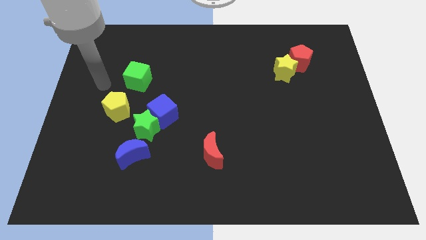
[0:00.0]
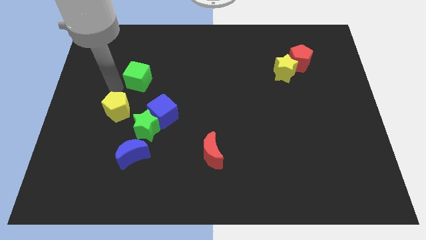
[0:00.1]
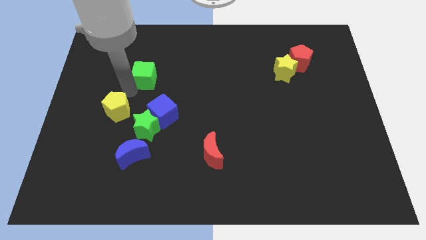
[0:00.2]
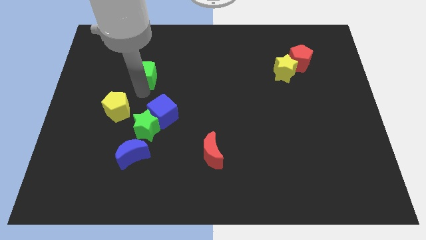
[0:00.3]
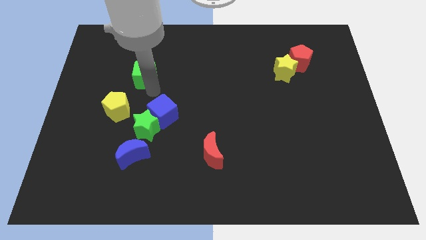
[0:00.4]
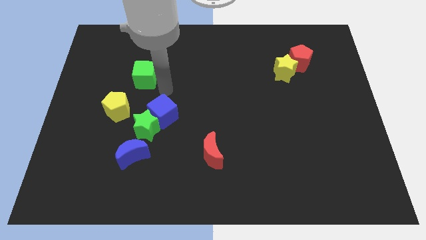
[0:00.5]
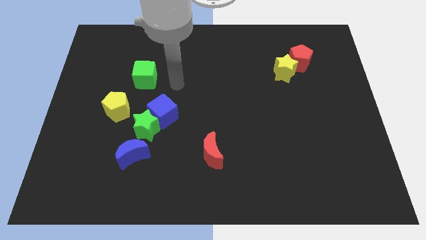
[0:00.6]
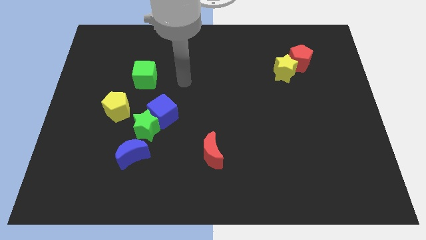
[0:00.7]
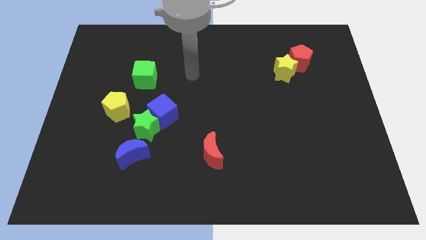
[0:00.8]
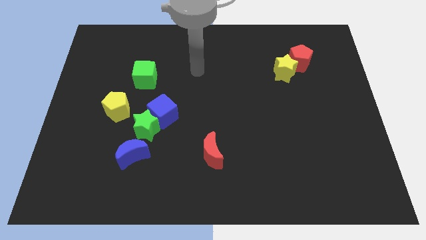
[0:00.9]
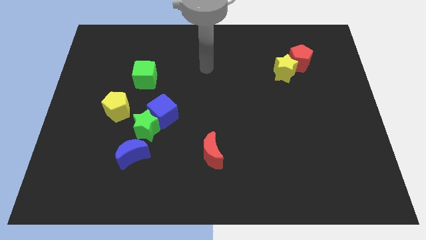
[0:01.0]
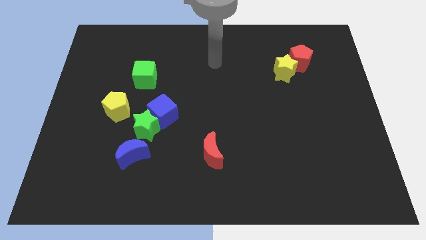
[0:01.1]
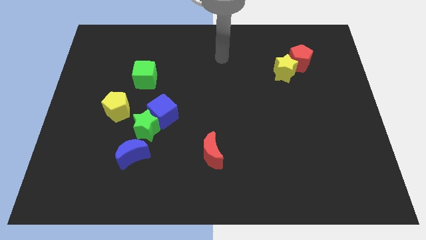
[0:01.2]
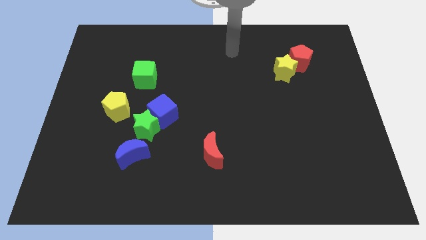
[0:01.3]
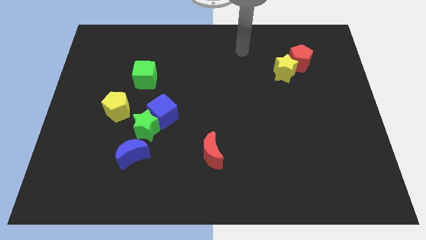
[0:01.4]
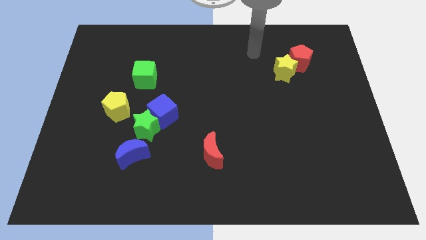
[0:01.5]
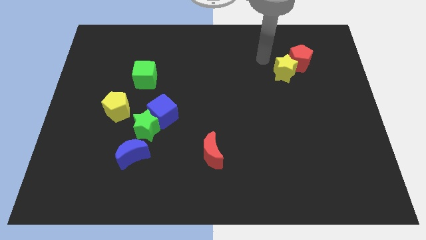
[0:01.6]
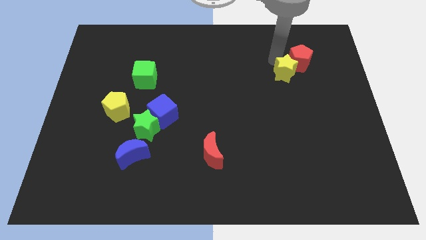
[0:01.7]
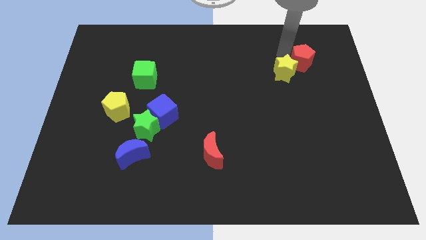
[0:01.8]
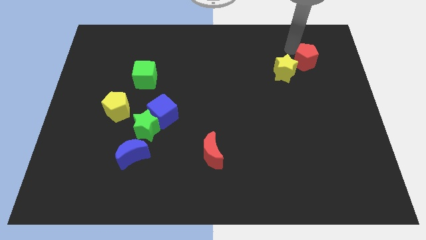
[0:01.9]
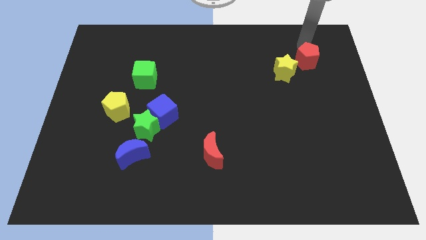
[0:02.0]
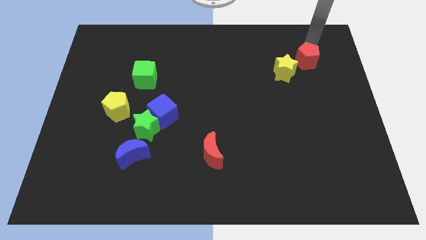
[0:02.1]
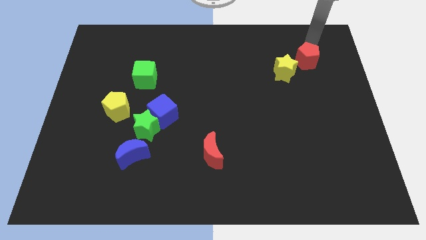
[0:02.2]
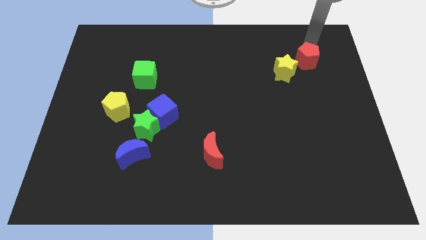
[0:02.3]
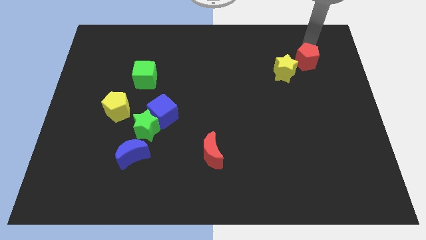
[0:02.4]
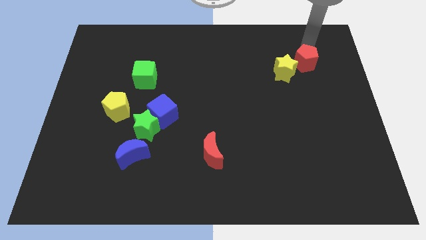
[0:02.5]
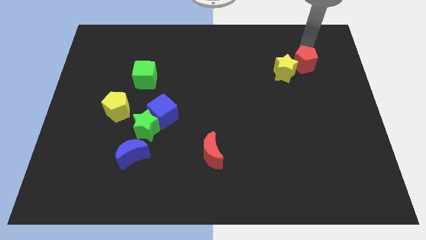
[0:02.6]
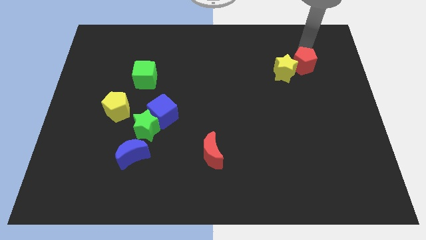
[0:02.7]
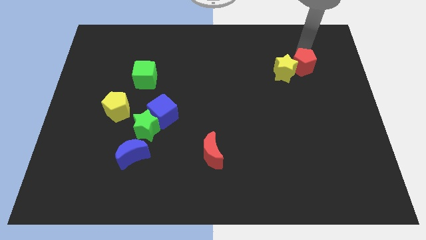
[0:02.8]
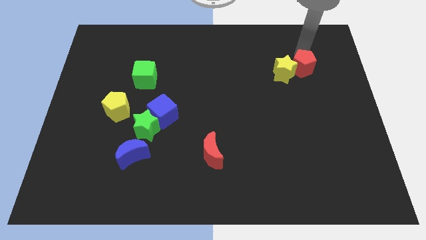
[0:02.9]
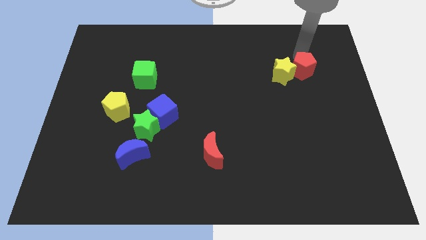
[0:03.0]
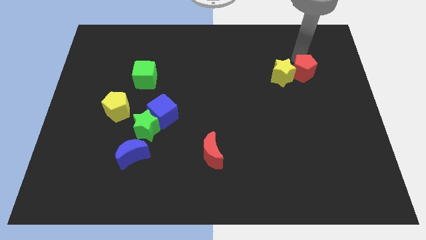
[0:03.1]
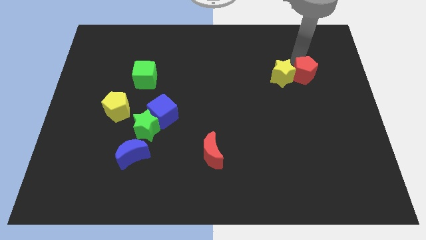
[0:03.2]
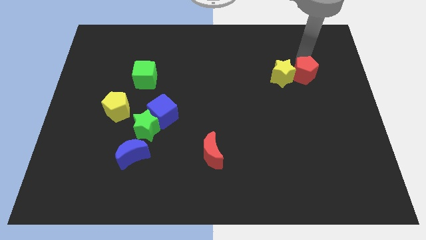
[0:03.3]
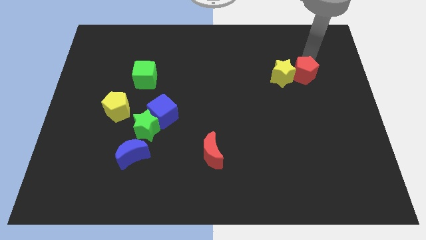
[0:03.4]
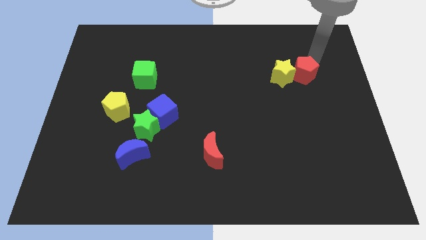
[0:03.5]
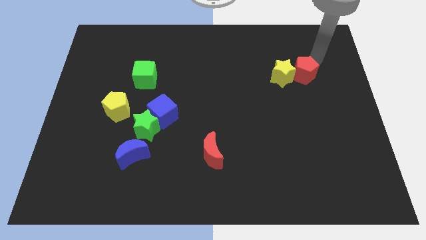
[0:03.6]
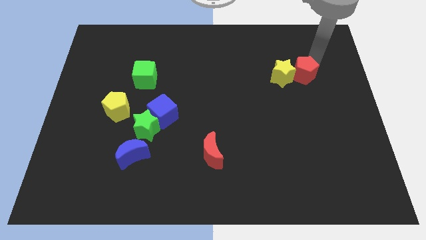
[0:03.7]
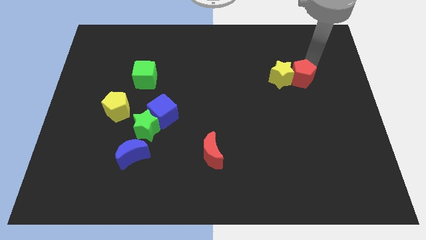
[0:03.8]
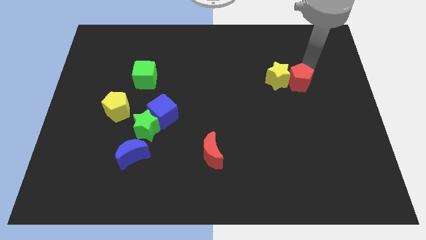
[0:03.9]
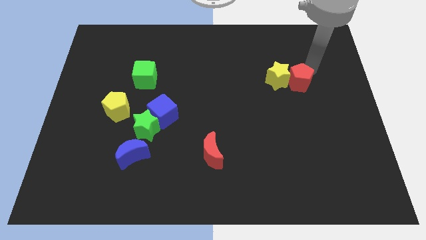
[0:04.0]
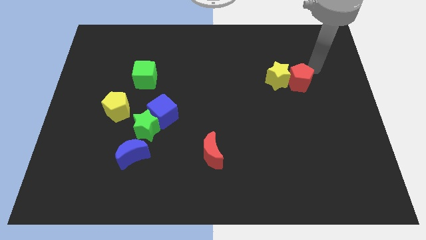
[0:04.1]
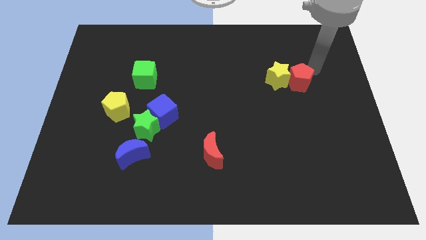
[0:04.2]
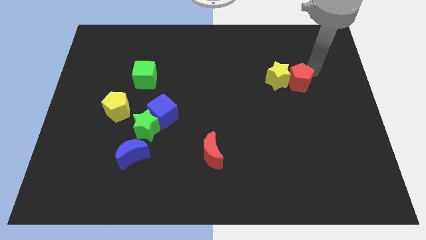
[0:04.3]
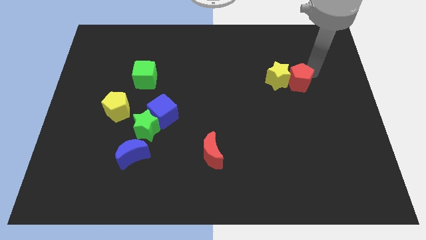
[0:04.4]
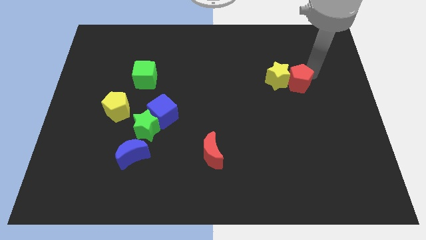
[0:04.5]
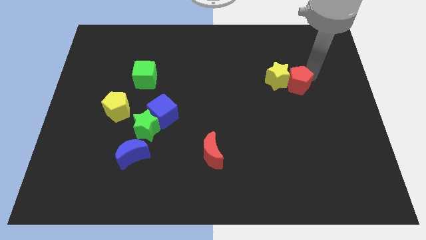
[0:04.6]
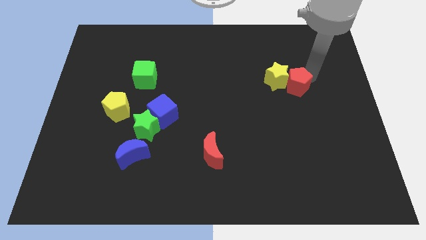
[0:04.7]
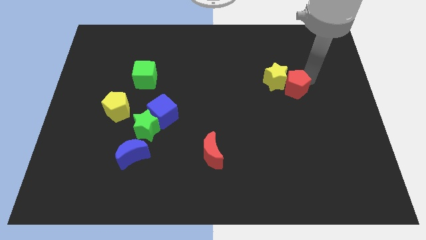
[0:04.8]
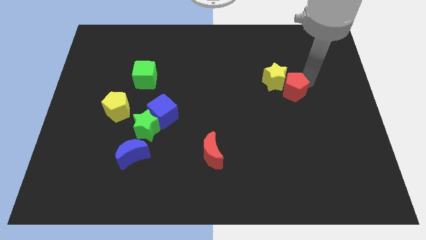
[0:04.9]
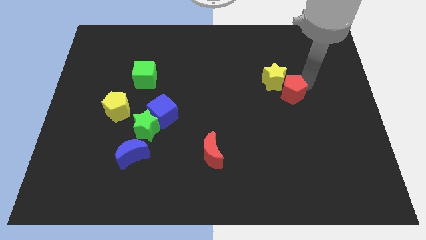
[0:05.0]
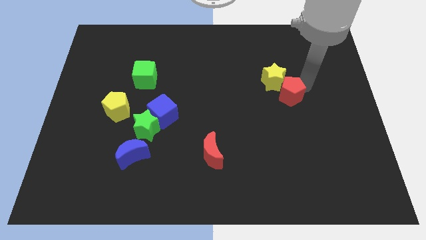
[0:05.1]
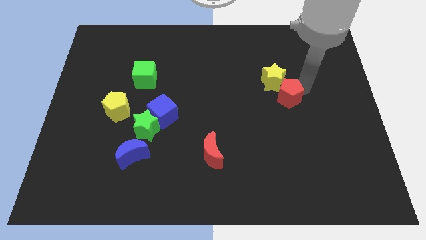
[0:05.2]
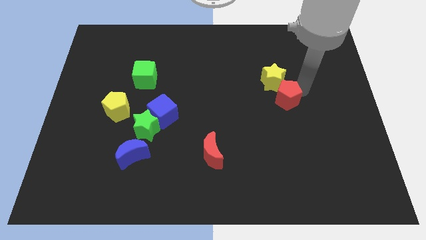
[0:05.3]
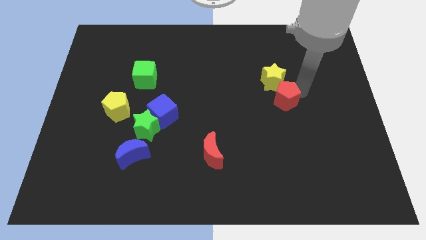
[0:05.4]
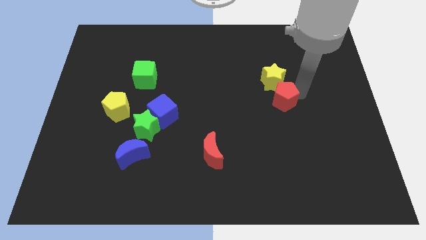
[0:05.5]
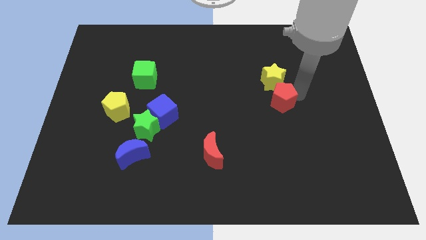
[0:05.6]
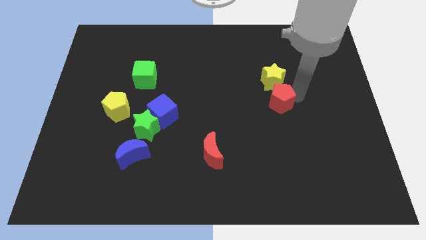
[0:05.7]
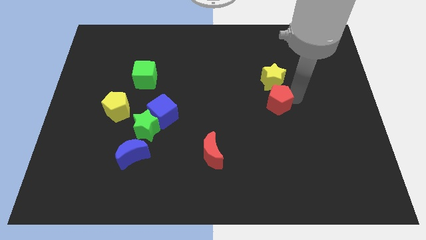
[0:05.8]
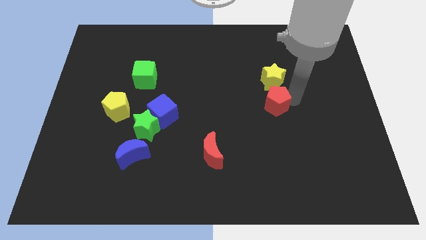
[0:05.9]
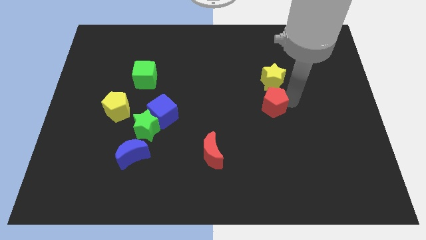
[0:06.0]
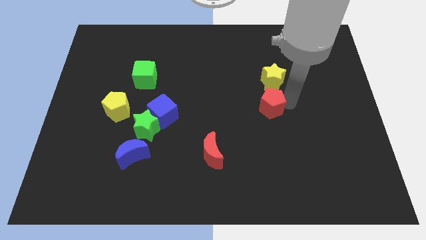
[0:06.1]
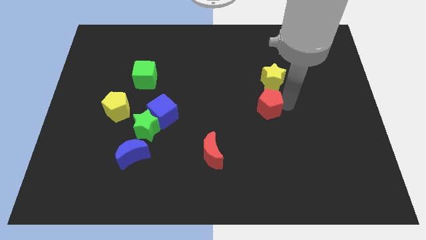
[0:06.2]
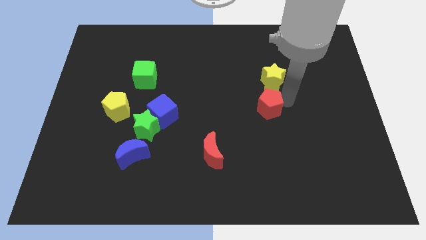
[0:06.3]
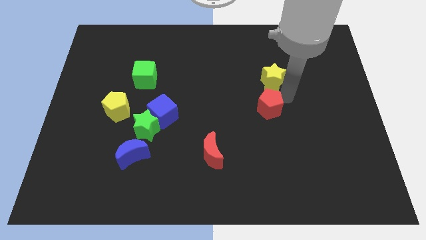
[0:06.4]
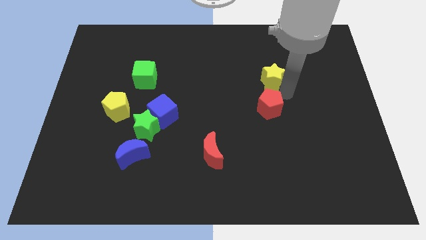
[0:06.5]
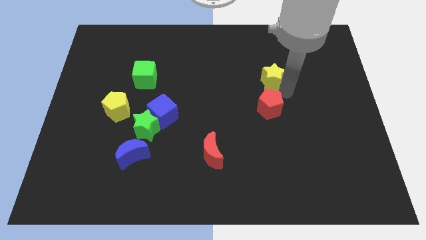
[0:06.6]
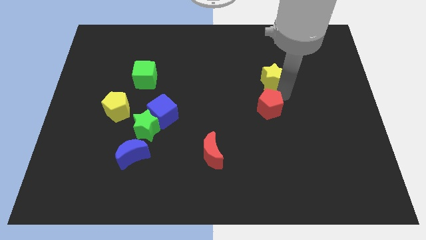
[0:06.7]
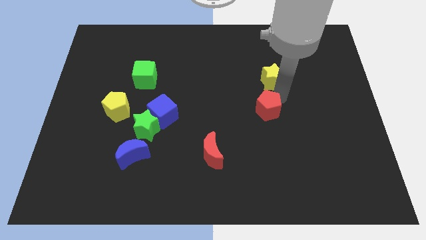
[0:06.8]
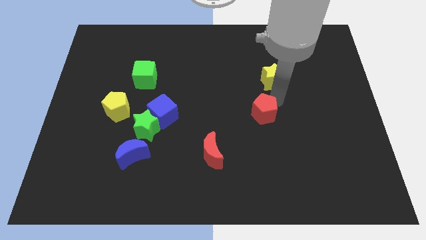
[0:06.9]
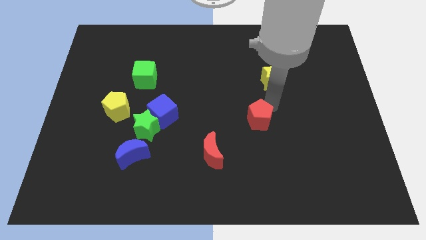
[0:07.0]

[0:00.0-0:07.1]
push the red pentagon downwards and left

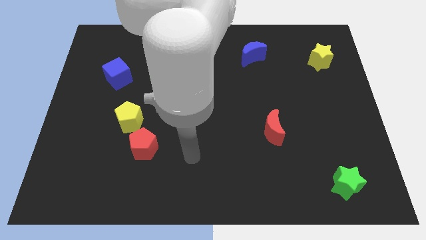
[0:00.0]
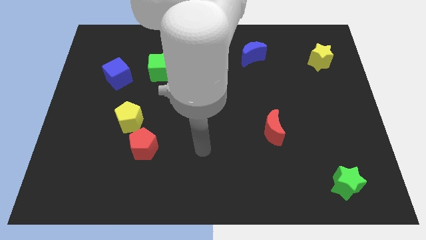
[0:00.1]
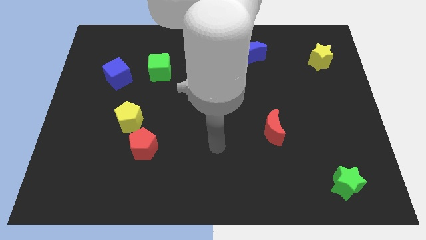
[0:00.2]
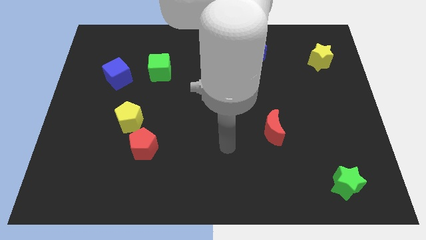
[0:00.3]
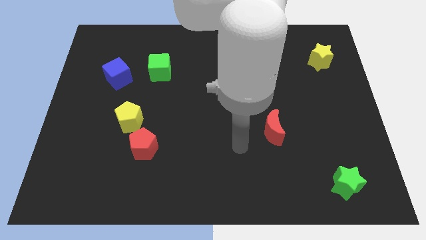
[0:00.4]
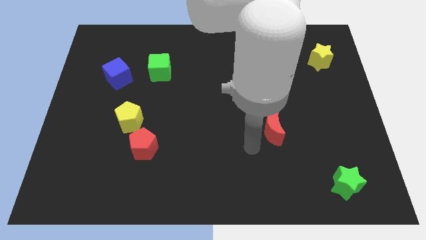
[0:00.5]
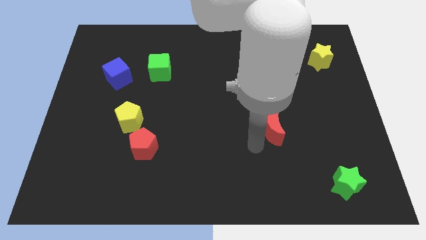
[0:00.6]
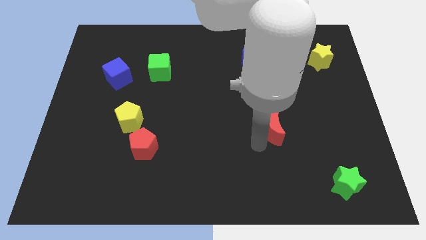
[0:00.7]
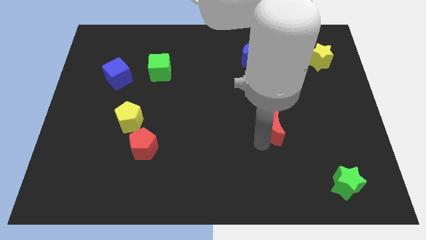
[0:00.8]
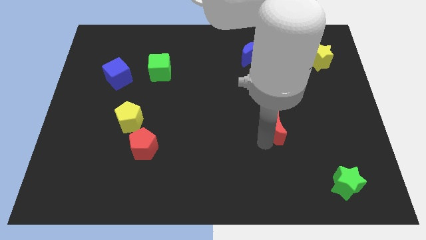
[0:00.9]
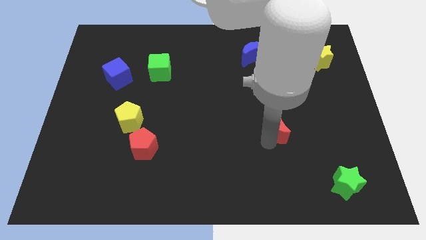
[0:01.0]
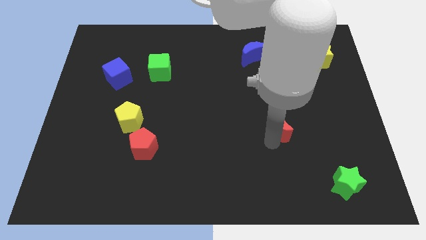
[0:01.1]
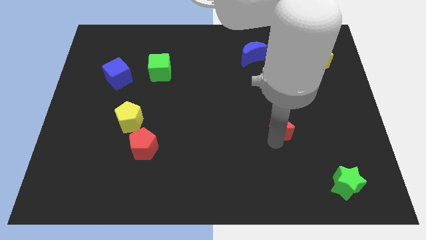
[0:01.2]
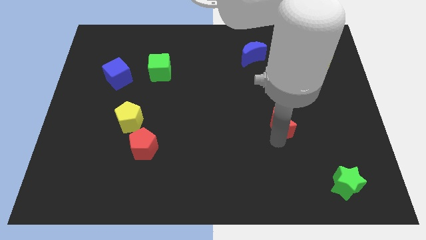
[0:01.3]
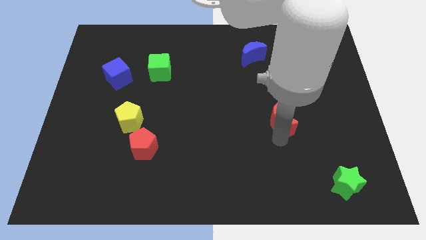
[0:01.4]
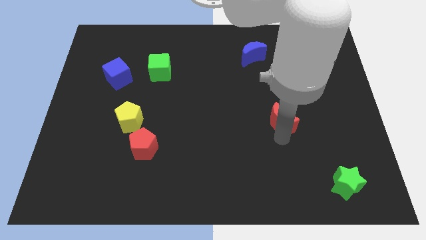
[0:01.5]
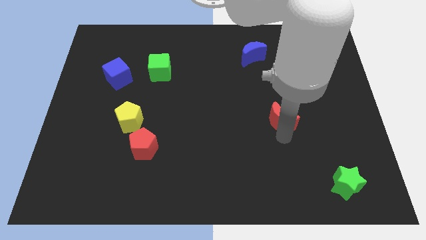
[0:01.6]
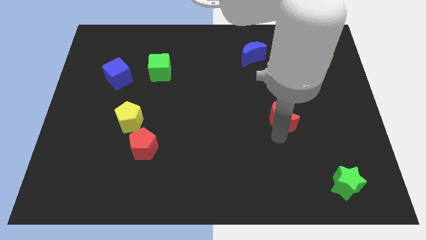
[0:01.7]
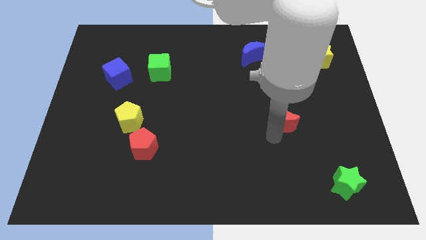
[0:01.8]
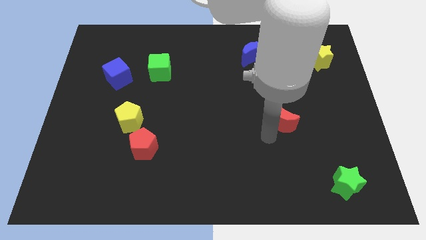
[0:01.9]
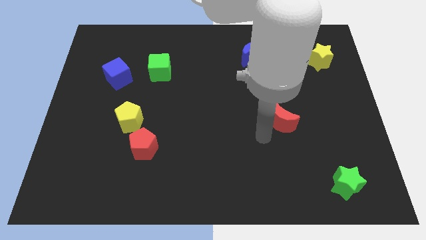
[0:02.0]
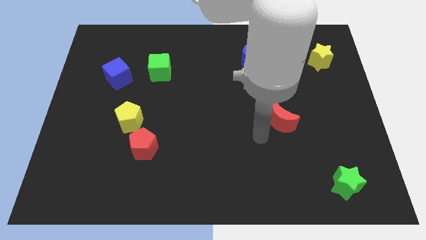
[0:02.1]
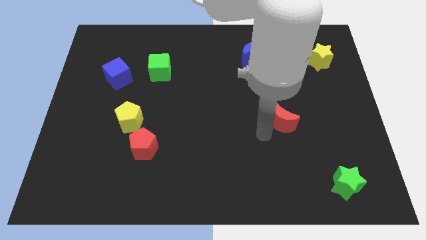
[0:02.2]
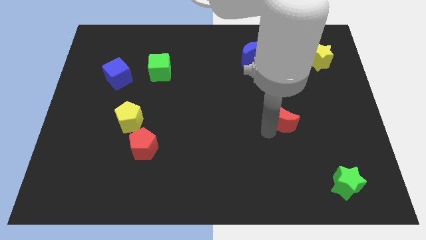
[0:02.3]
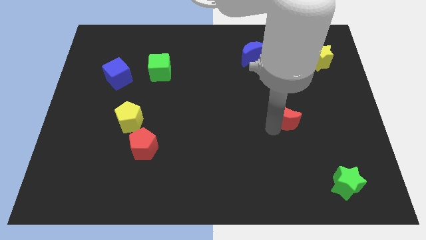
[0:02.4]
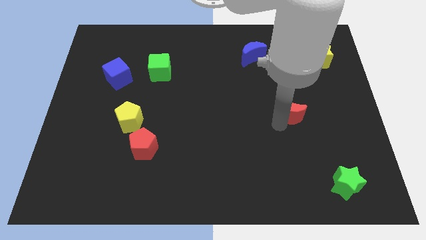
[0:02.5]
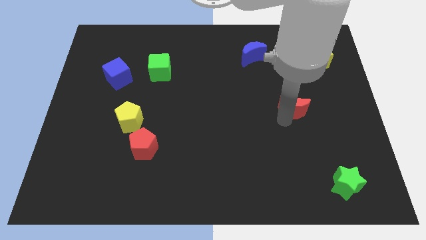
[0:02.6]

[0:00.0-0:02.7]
slightly push the red moon up and to the right diagonally
